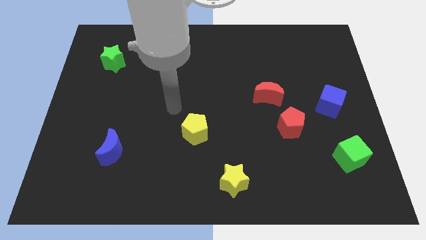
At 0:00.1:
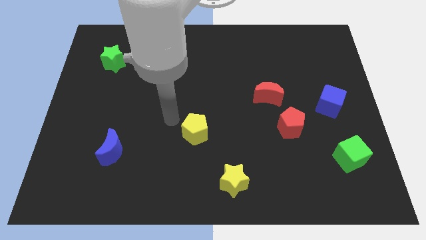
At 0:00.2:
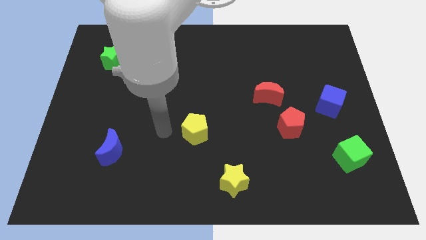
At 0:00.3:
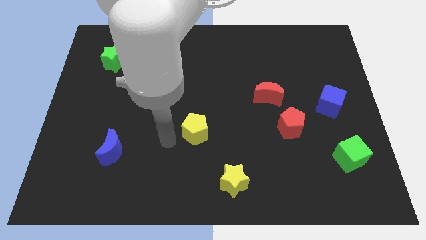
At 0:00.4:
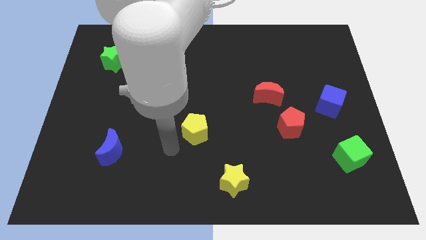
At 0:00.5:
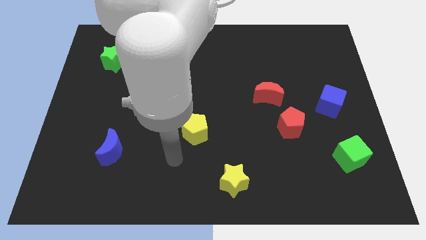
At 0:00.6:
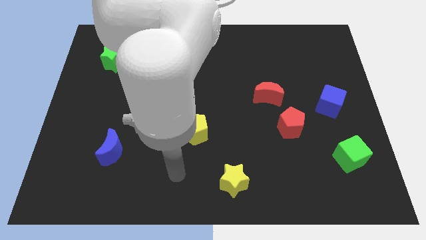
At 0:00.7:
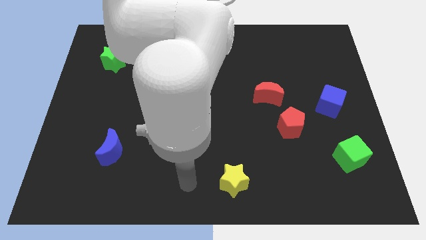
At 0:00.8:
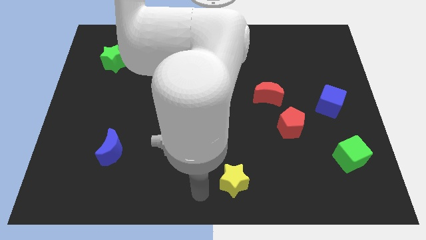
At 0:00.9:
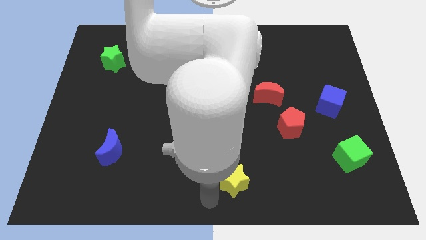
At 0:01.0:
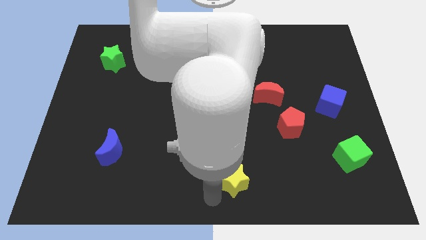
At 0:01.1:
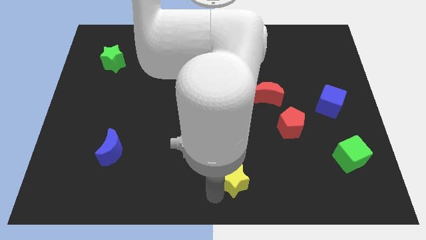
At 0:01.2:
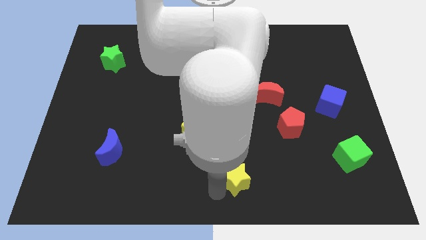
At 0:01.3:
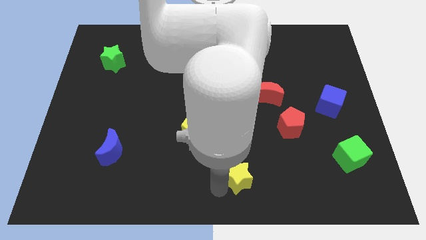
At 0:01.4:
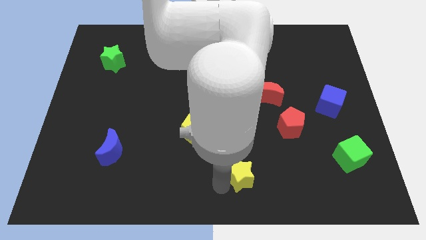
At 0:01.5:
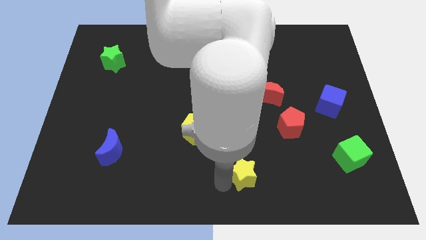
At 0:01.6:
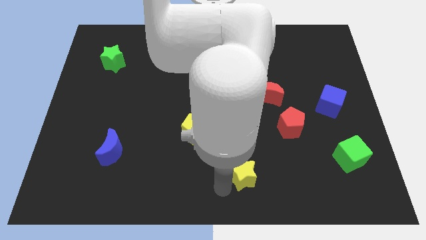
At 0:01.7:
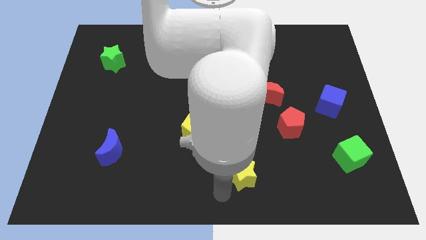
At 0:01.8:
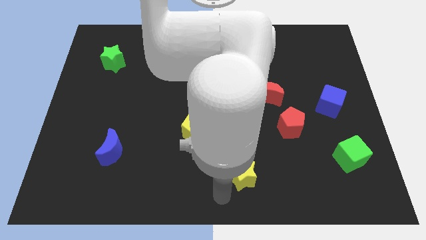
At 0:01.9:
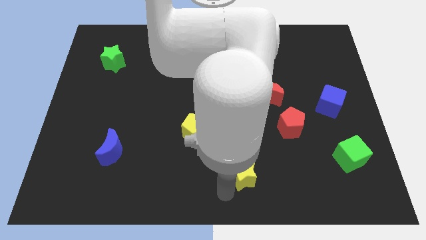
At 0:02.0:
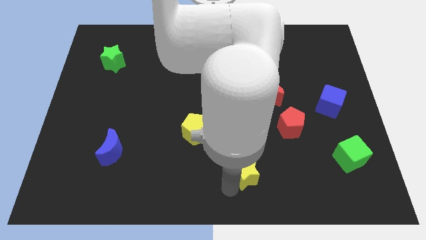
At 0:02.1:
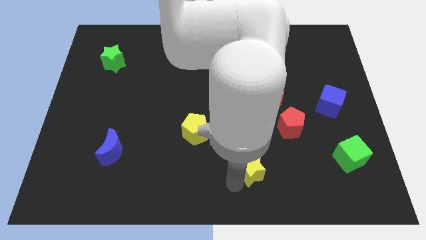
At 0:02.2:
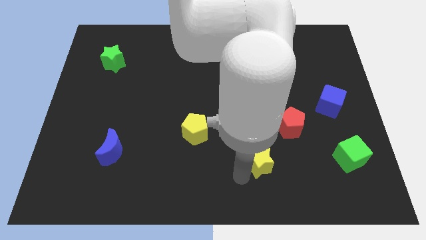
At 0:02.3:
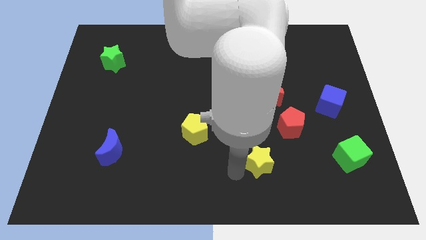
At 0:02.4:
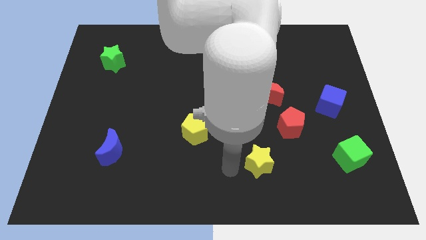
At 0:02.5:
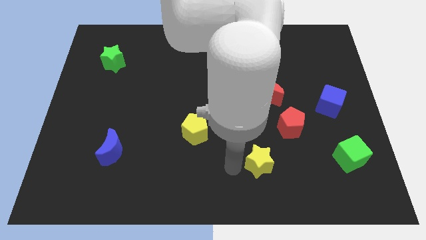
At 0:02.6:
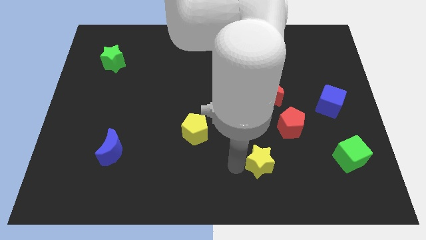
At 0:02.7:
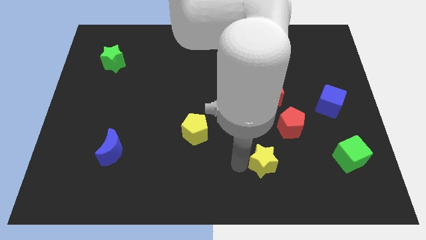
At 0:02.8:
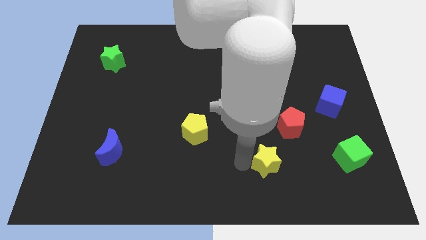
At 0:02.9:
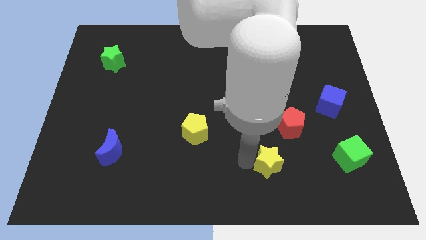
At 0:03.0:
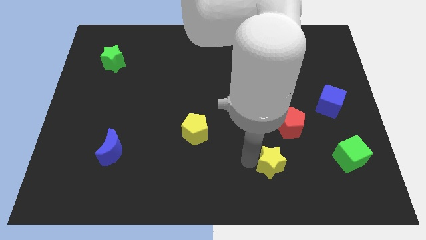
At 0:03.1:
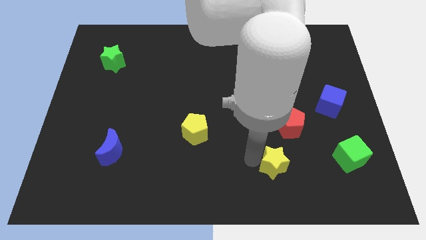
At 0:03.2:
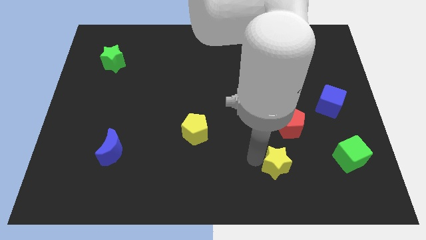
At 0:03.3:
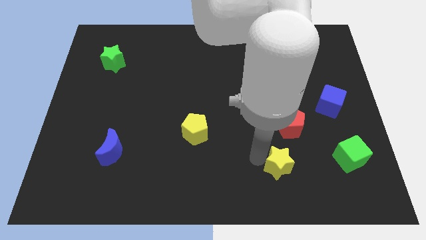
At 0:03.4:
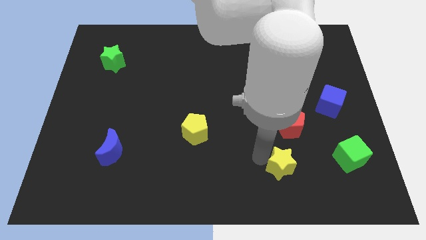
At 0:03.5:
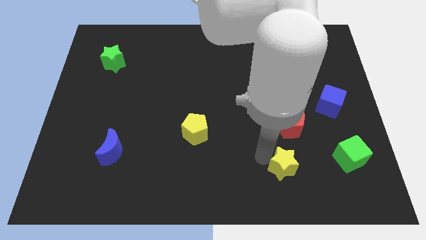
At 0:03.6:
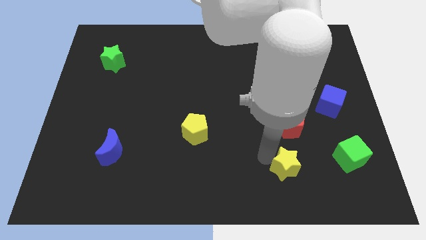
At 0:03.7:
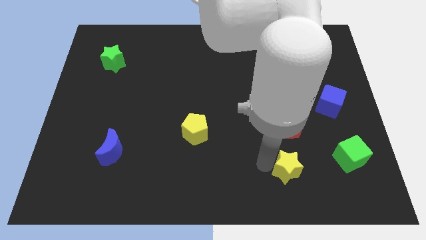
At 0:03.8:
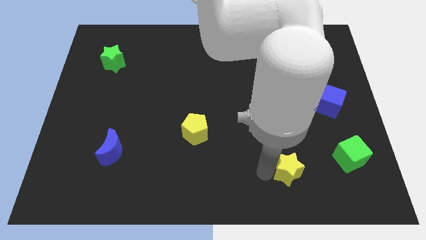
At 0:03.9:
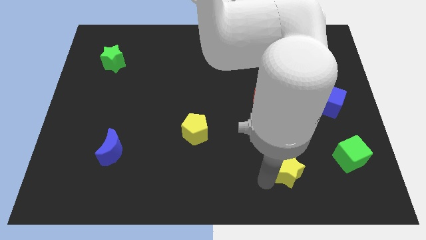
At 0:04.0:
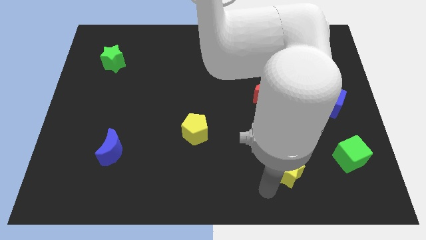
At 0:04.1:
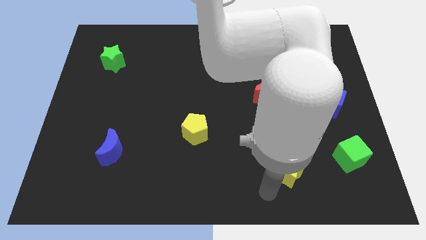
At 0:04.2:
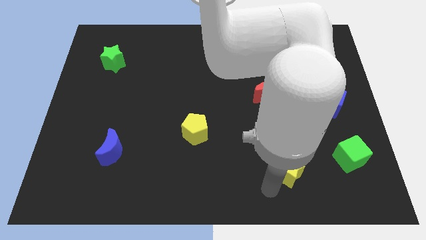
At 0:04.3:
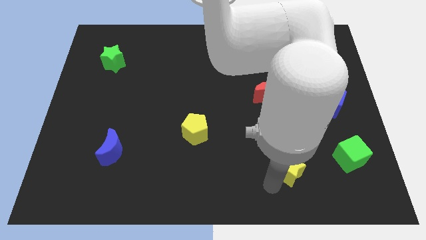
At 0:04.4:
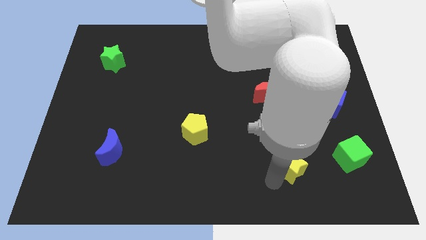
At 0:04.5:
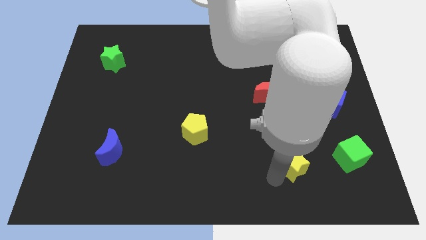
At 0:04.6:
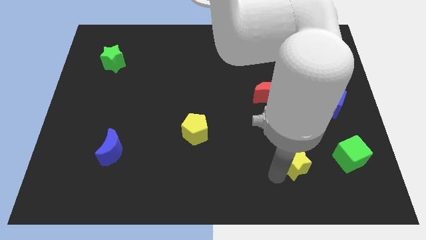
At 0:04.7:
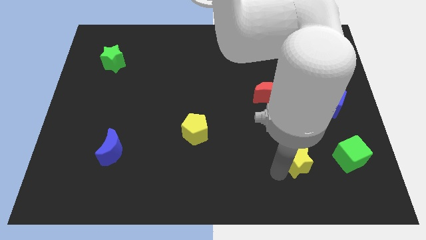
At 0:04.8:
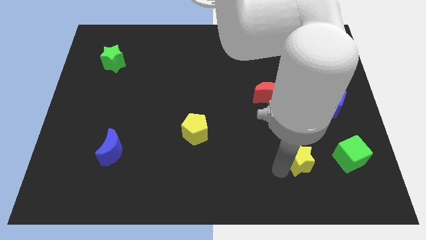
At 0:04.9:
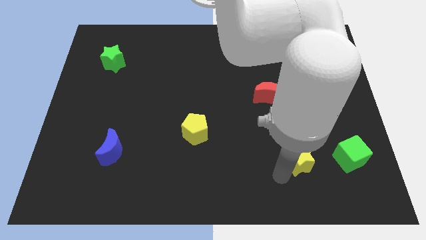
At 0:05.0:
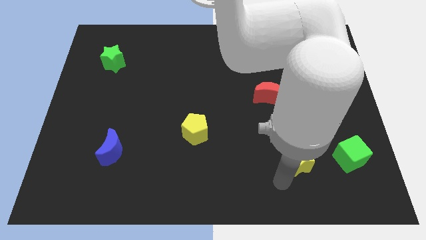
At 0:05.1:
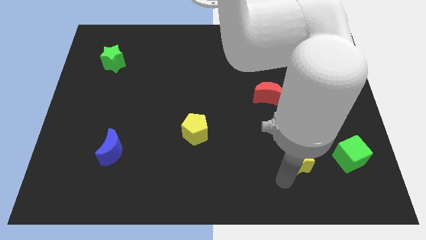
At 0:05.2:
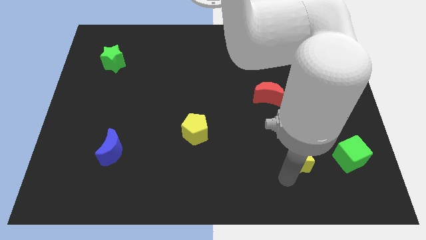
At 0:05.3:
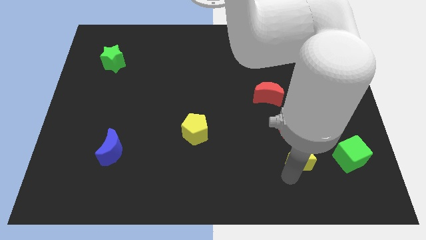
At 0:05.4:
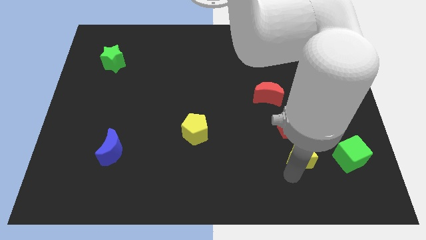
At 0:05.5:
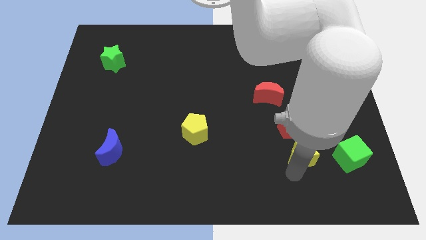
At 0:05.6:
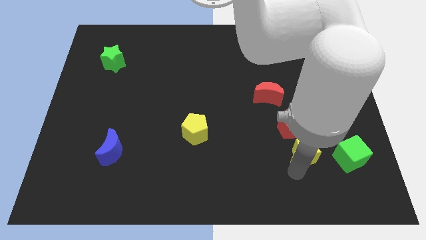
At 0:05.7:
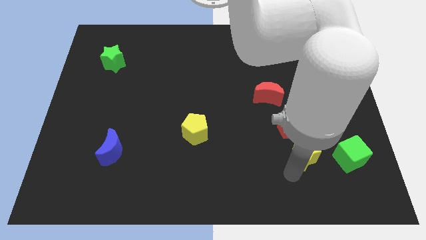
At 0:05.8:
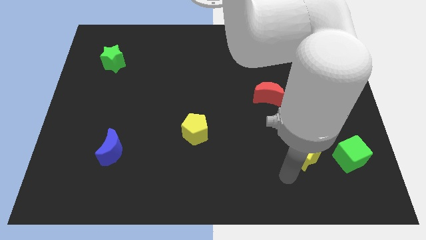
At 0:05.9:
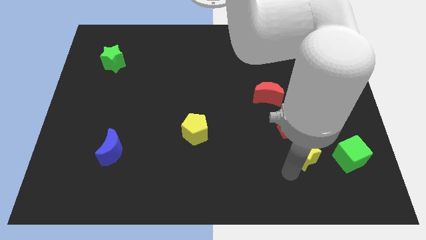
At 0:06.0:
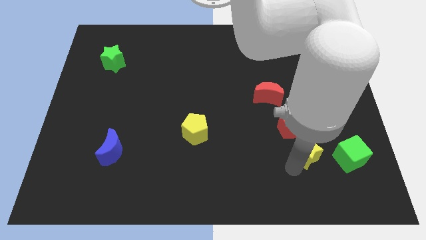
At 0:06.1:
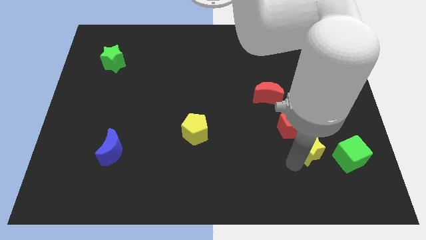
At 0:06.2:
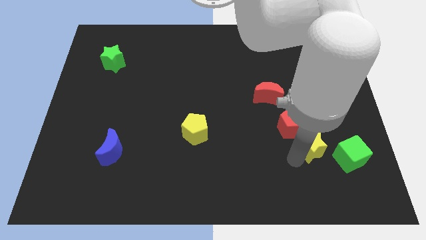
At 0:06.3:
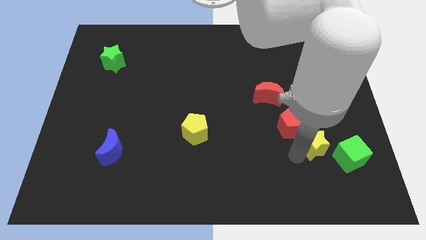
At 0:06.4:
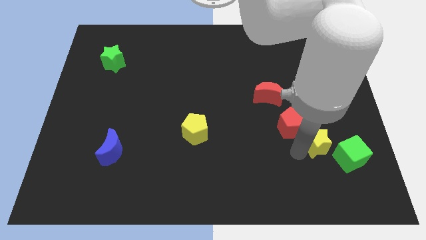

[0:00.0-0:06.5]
put the yellow star to the right side of the red pentagon

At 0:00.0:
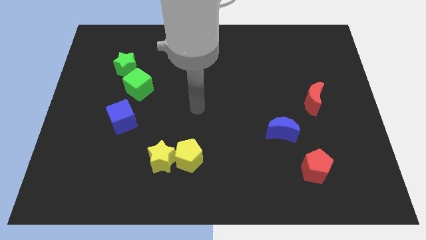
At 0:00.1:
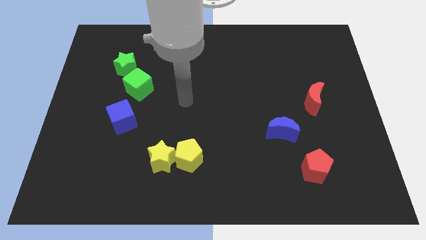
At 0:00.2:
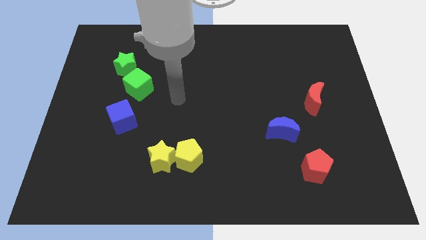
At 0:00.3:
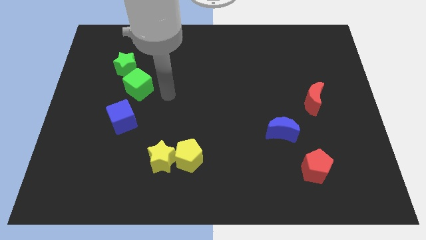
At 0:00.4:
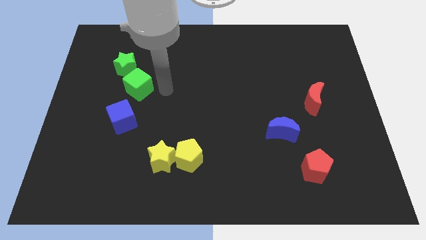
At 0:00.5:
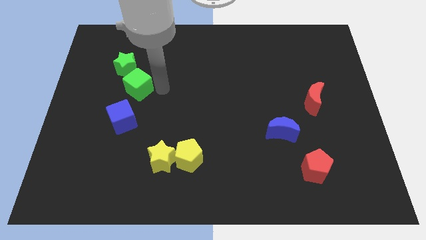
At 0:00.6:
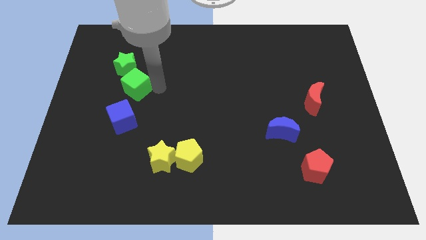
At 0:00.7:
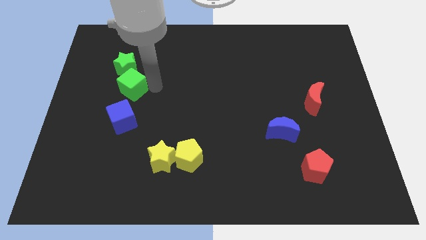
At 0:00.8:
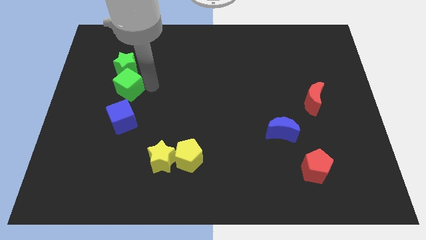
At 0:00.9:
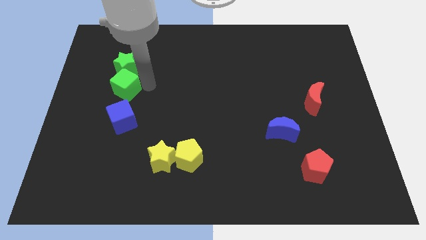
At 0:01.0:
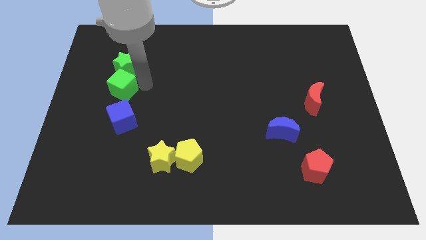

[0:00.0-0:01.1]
slide the green cube to the bottom left of the green star
